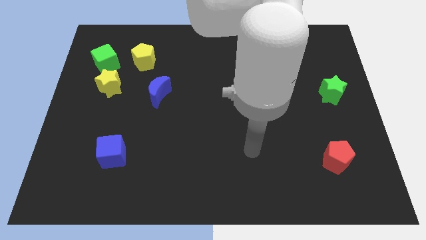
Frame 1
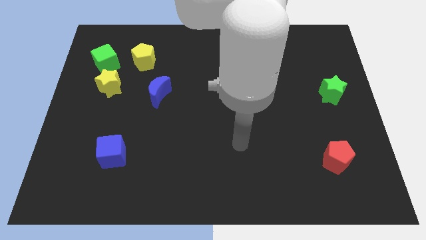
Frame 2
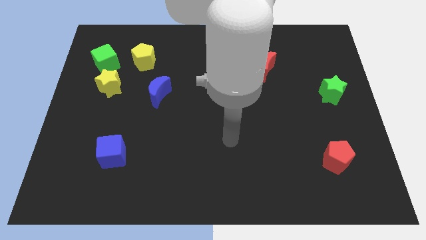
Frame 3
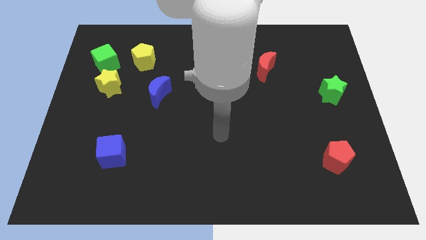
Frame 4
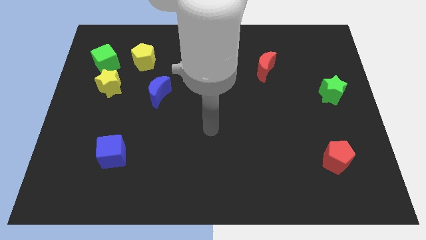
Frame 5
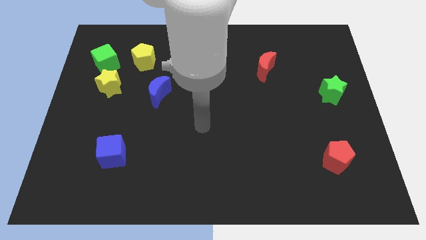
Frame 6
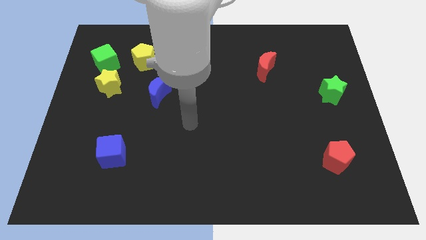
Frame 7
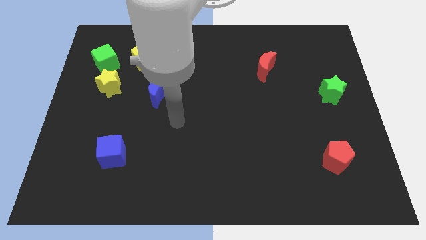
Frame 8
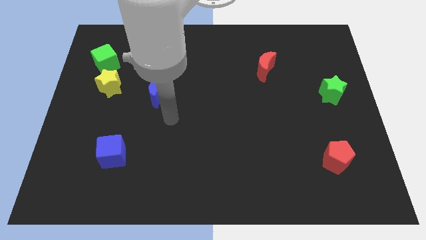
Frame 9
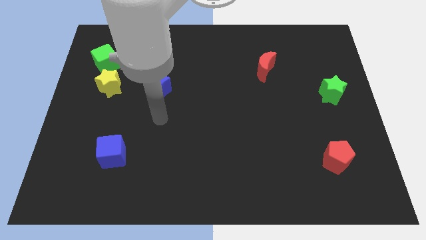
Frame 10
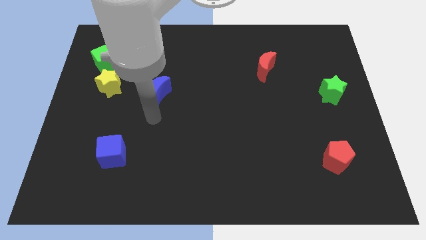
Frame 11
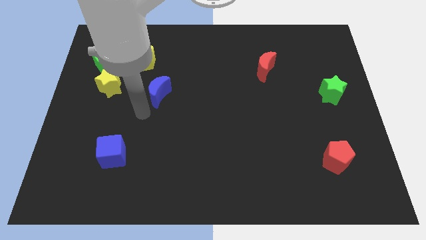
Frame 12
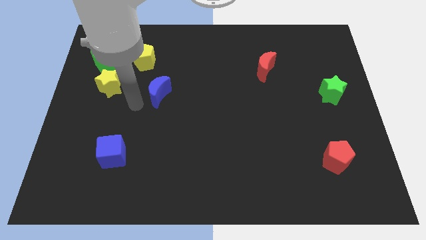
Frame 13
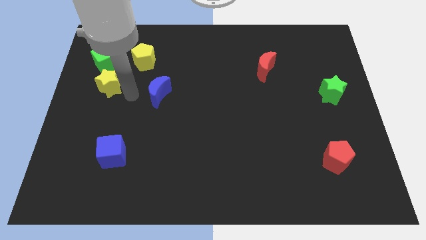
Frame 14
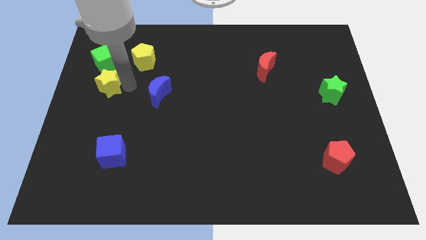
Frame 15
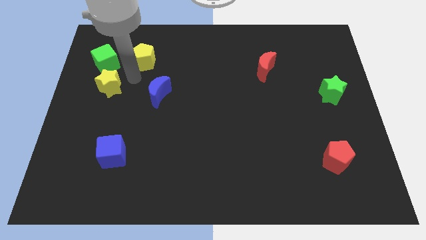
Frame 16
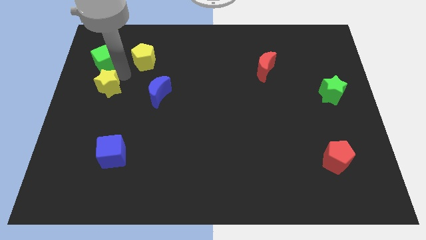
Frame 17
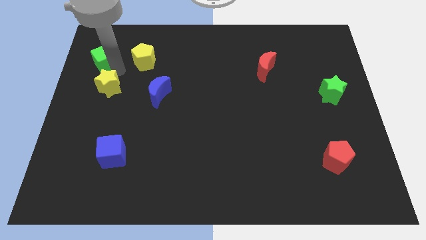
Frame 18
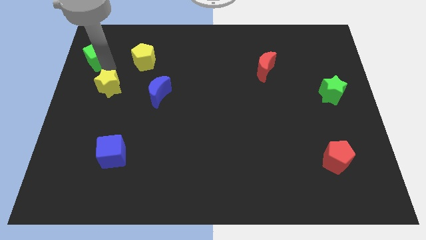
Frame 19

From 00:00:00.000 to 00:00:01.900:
move the yellow star away from the green cube

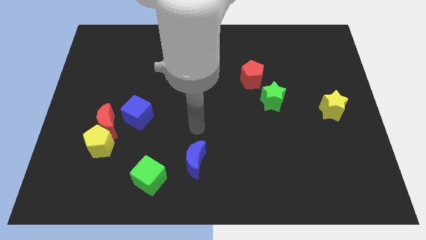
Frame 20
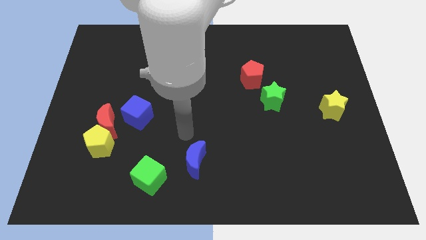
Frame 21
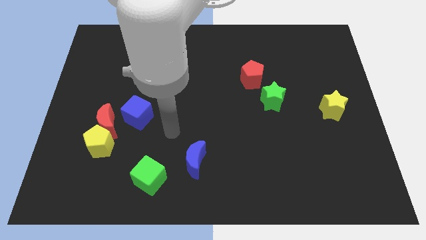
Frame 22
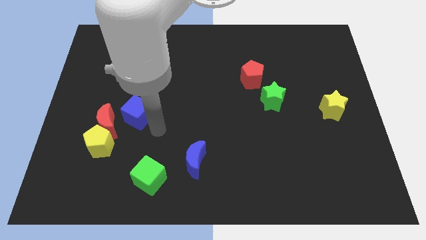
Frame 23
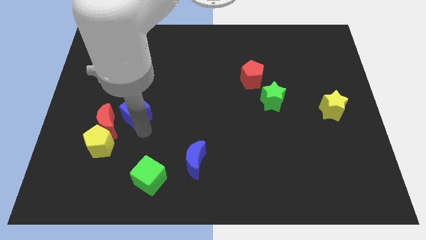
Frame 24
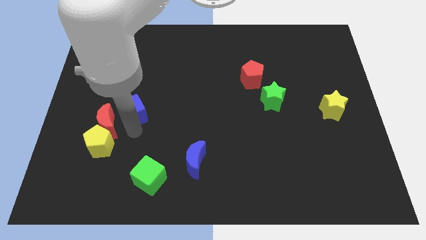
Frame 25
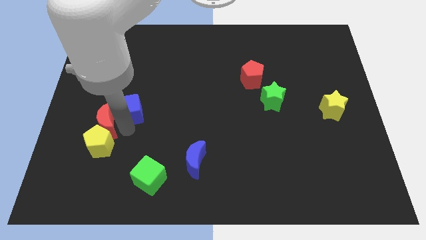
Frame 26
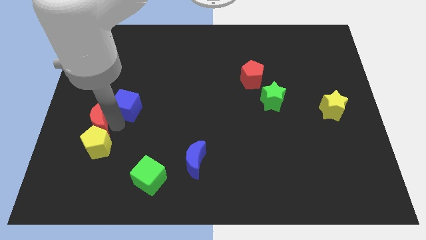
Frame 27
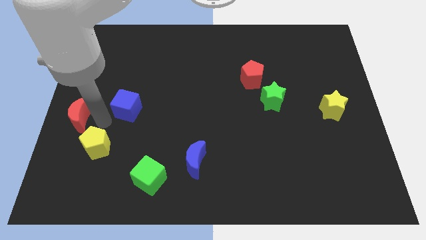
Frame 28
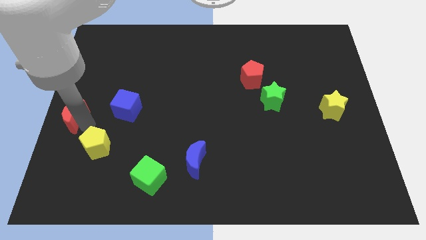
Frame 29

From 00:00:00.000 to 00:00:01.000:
pull the yellow pentagon apart from the red moon

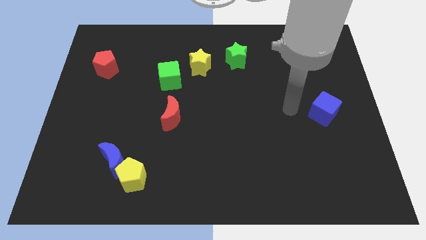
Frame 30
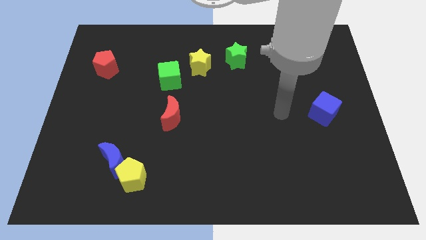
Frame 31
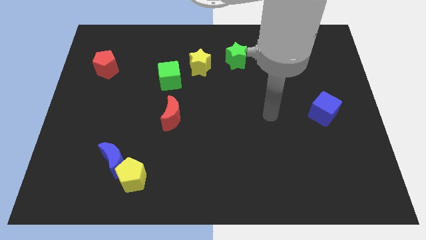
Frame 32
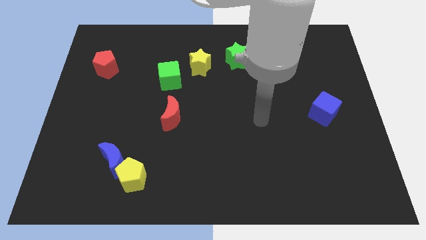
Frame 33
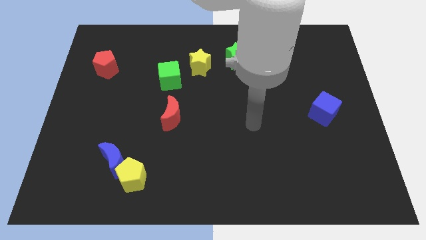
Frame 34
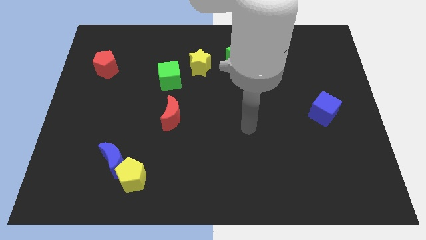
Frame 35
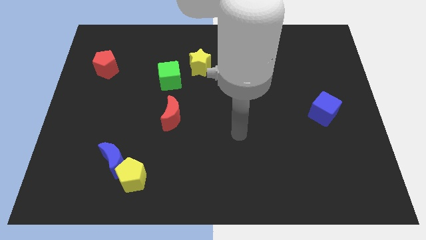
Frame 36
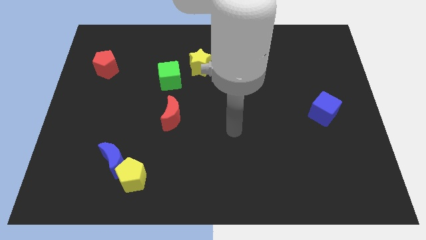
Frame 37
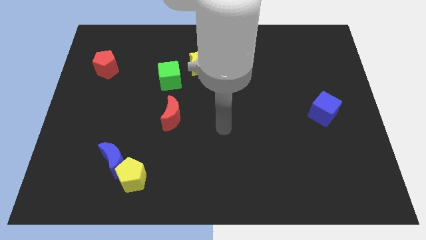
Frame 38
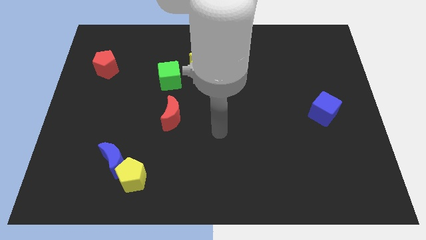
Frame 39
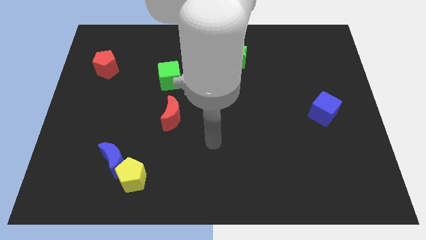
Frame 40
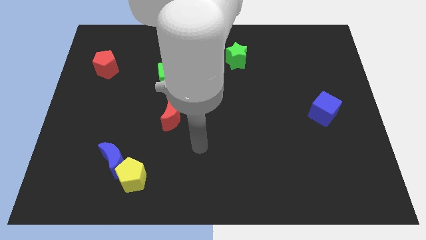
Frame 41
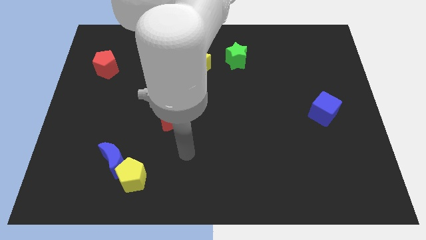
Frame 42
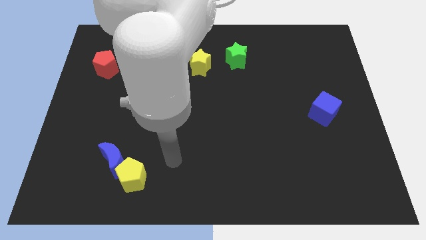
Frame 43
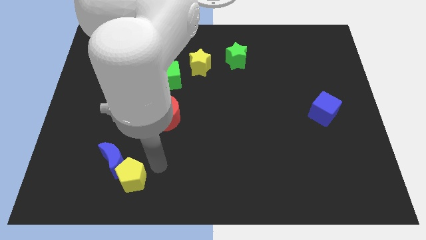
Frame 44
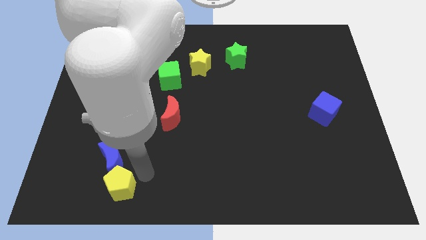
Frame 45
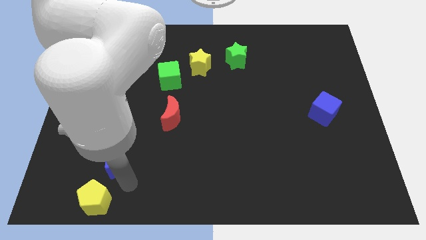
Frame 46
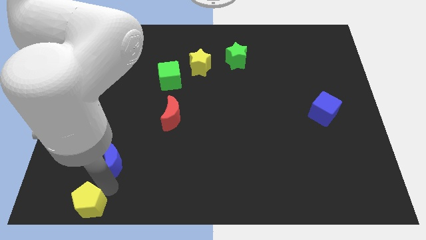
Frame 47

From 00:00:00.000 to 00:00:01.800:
move the blue moon away from the yellow pentagon

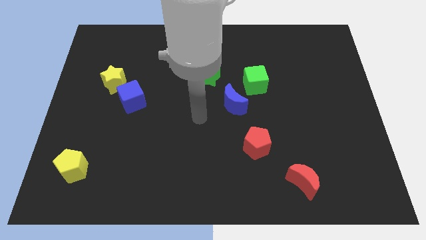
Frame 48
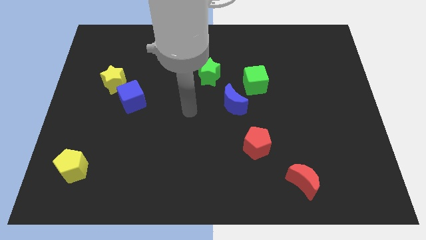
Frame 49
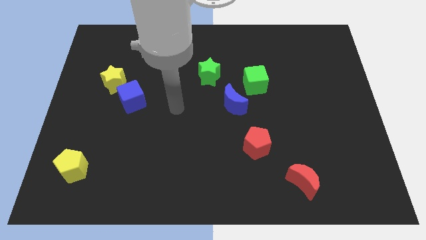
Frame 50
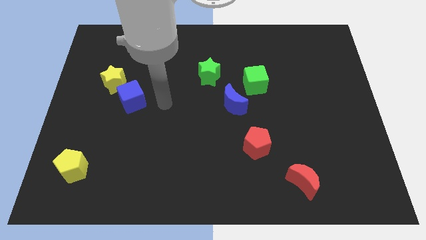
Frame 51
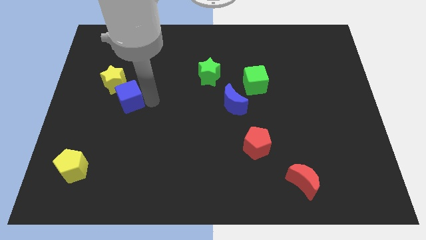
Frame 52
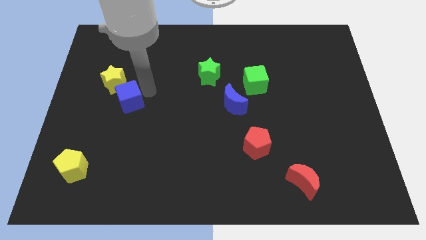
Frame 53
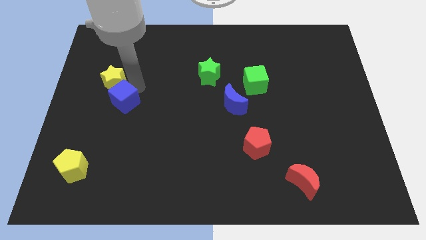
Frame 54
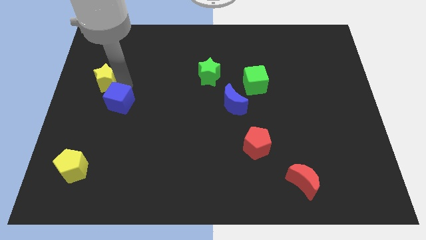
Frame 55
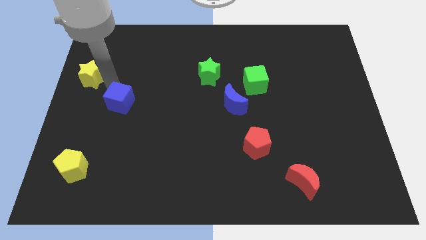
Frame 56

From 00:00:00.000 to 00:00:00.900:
separate the blue cube from the yellow star

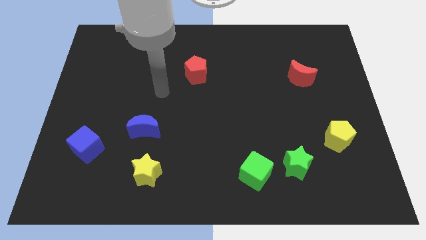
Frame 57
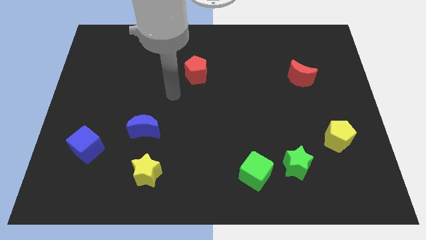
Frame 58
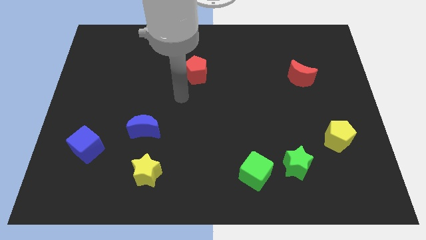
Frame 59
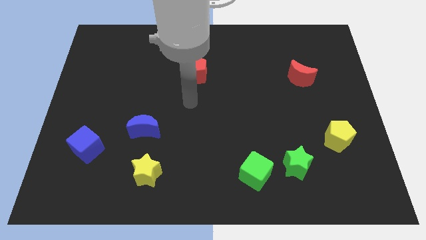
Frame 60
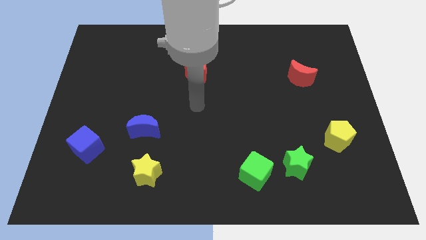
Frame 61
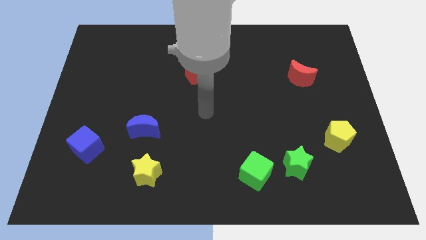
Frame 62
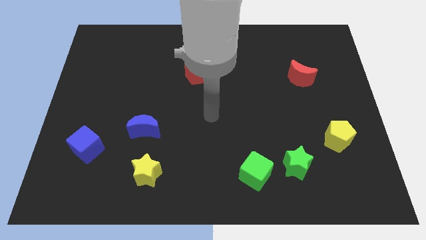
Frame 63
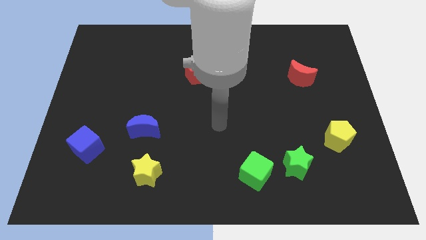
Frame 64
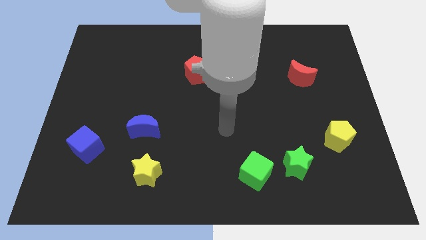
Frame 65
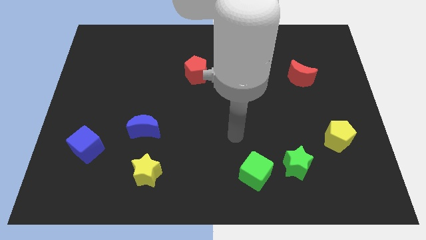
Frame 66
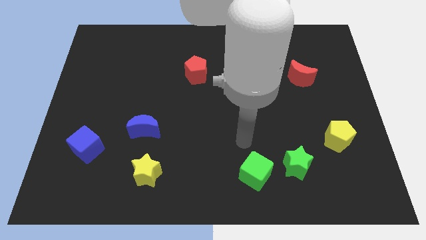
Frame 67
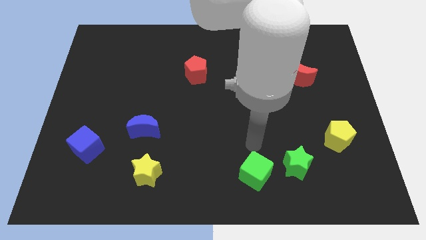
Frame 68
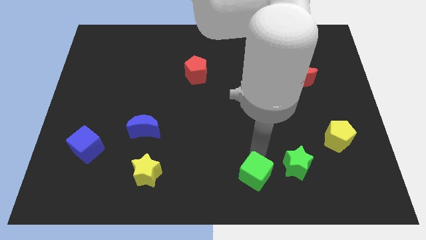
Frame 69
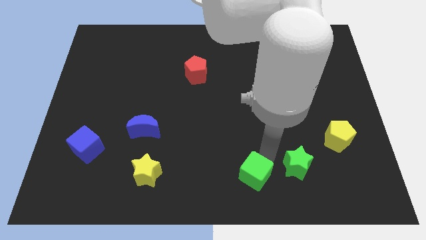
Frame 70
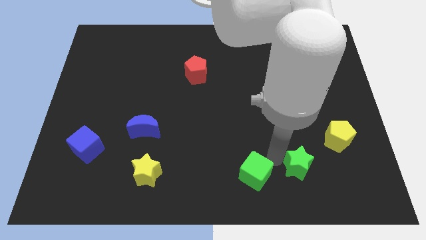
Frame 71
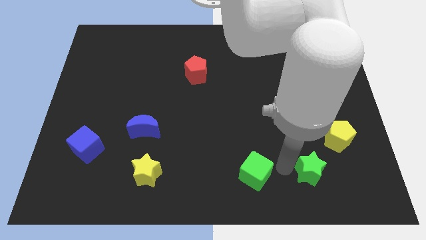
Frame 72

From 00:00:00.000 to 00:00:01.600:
separate the green cube from the green star

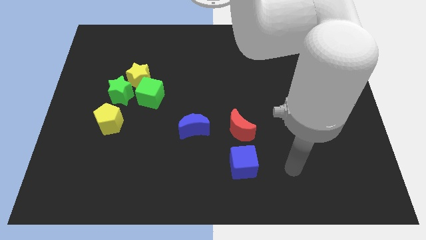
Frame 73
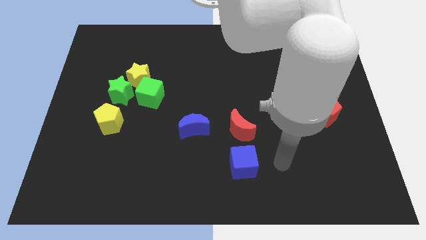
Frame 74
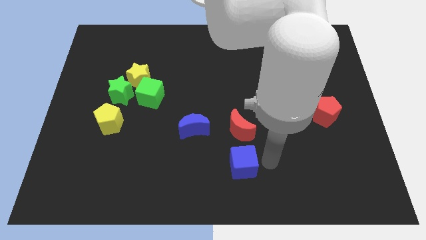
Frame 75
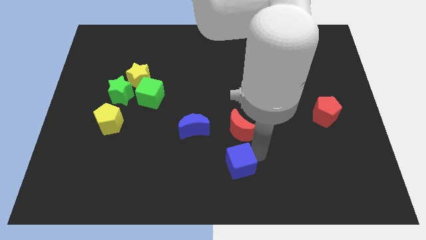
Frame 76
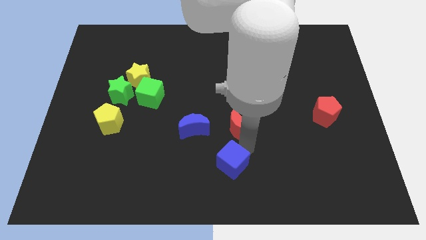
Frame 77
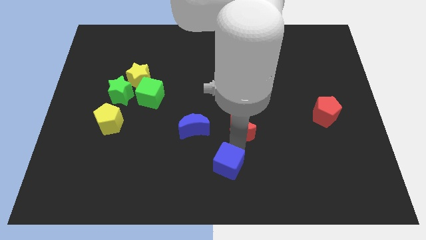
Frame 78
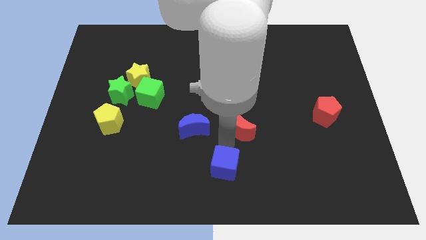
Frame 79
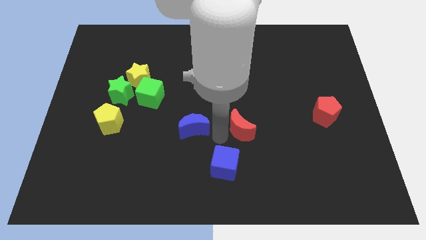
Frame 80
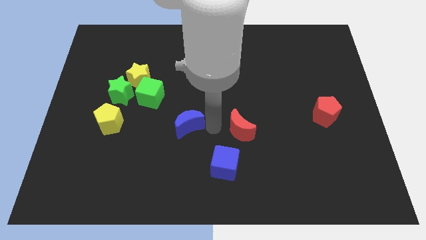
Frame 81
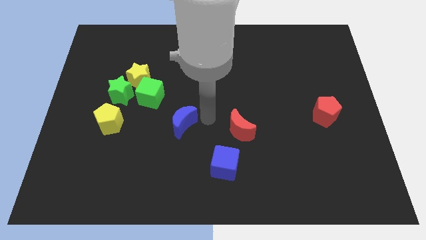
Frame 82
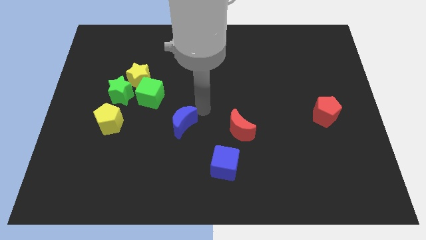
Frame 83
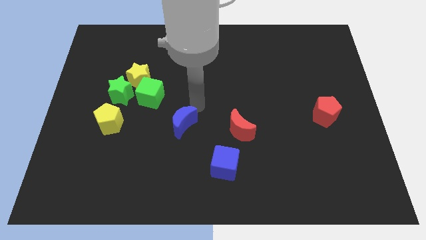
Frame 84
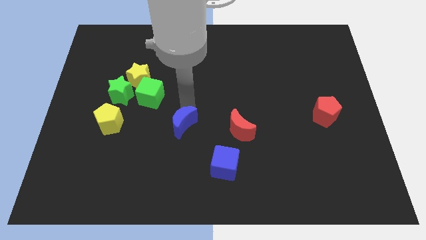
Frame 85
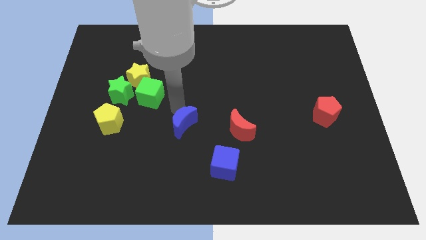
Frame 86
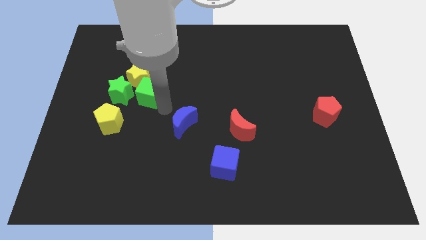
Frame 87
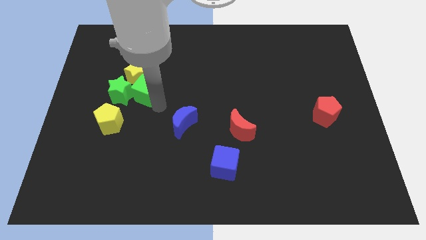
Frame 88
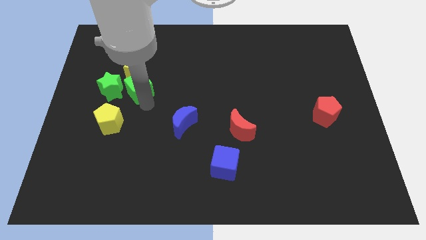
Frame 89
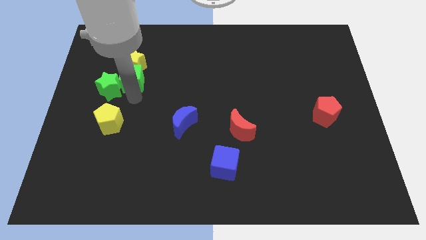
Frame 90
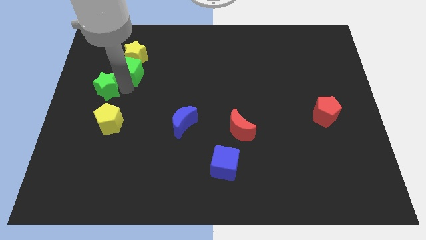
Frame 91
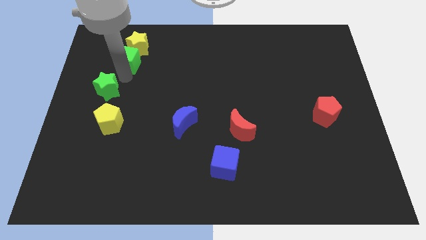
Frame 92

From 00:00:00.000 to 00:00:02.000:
move the yellow star away from the green star and green cube

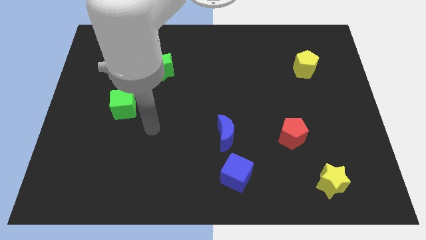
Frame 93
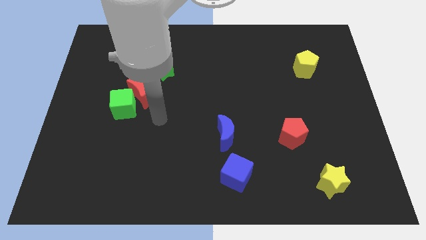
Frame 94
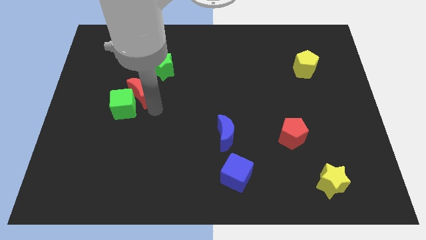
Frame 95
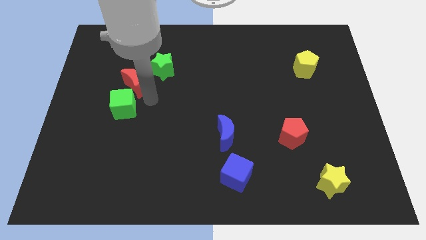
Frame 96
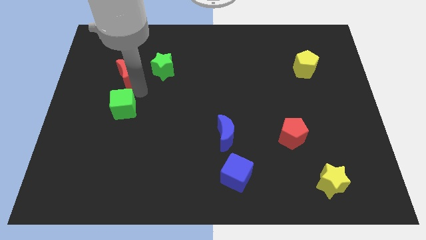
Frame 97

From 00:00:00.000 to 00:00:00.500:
pull the green cube apart from the red moon
